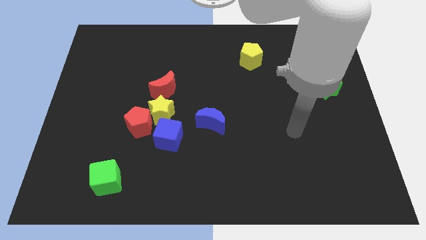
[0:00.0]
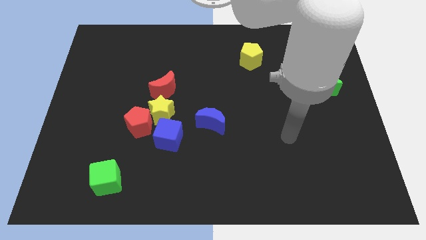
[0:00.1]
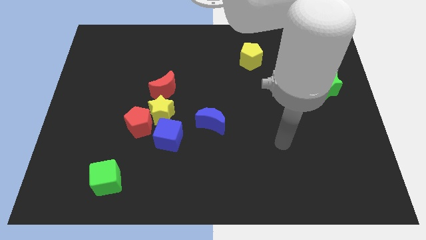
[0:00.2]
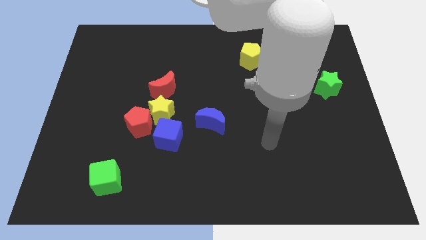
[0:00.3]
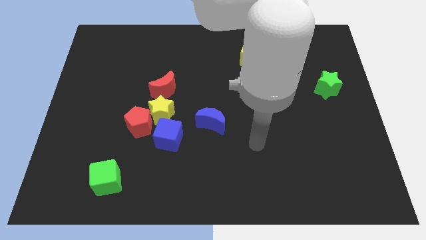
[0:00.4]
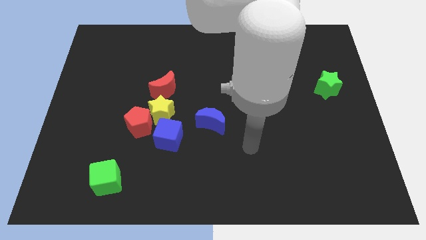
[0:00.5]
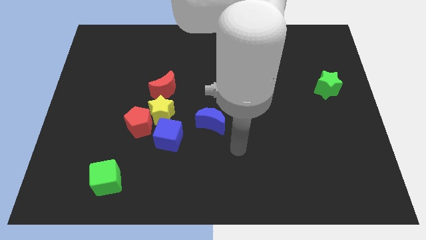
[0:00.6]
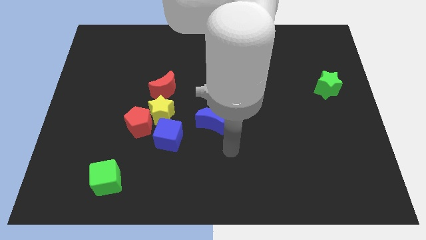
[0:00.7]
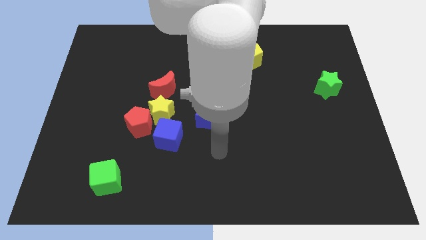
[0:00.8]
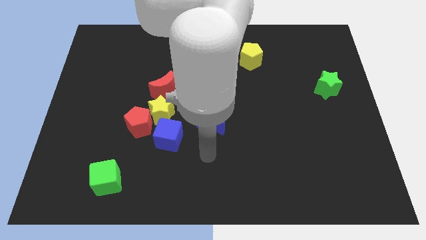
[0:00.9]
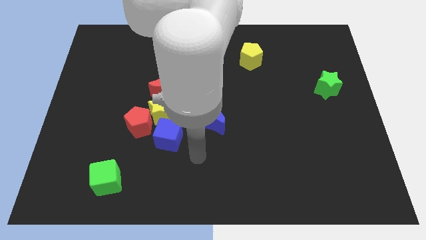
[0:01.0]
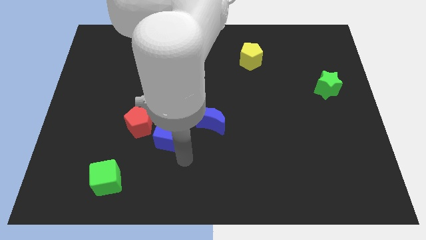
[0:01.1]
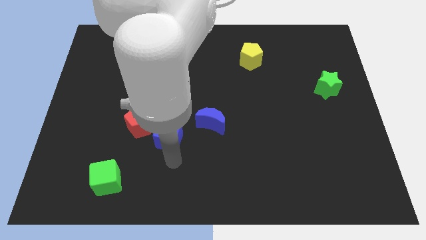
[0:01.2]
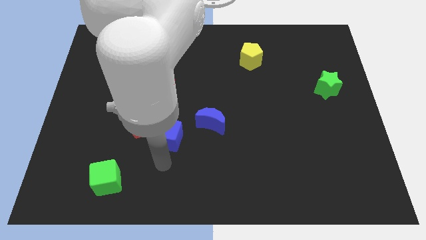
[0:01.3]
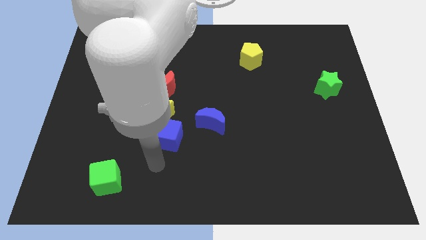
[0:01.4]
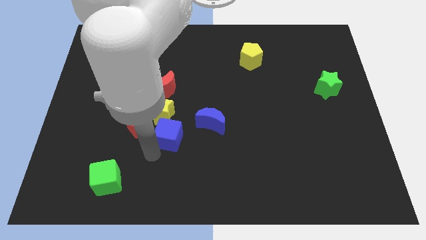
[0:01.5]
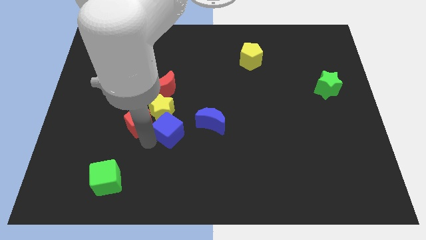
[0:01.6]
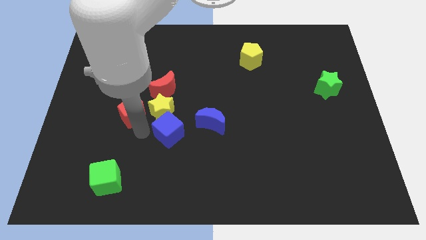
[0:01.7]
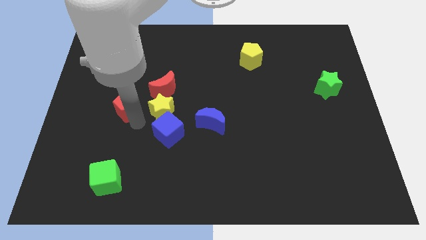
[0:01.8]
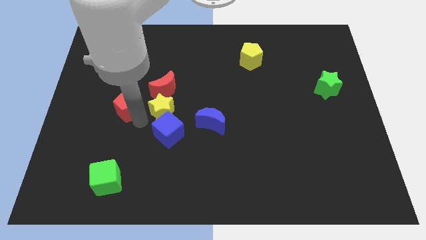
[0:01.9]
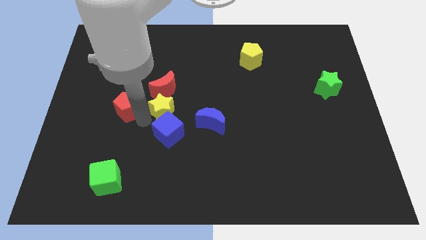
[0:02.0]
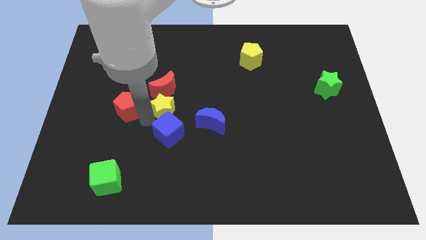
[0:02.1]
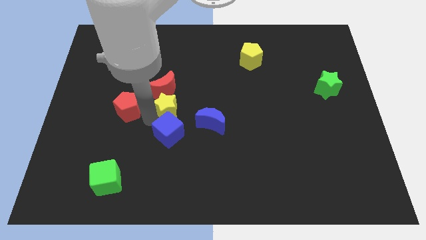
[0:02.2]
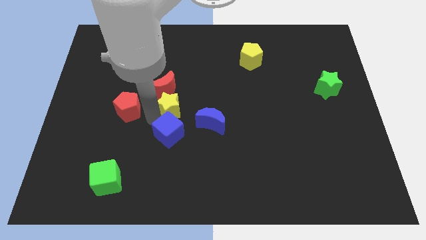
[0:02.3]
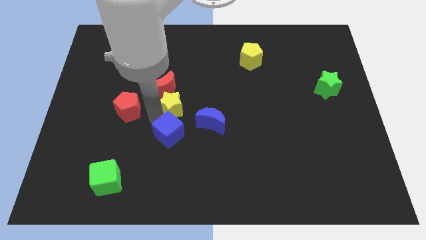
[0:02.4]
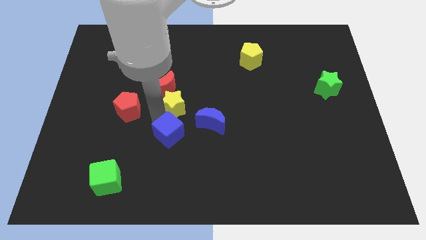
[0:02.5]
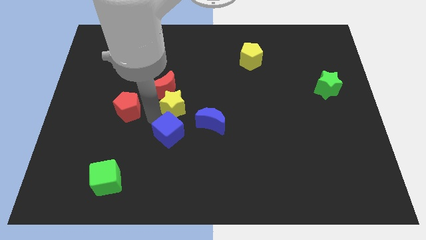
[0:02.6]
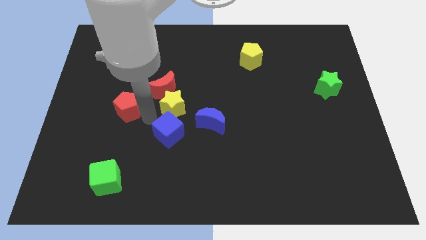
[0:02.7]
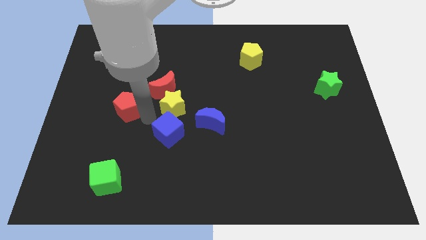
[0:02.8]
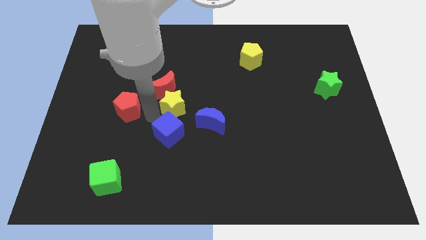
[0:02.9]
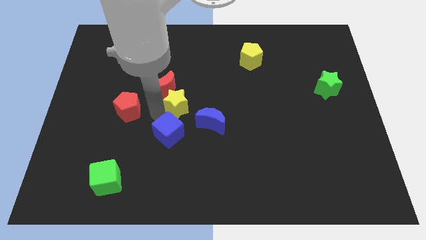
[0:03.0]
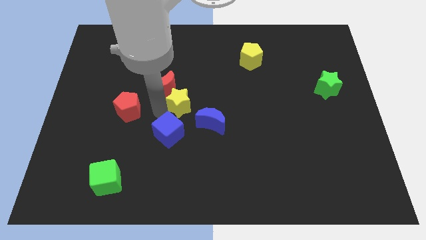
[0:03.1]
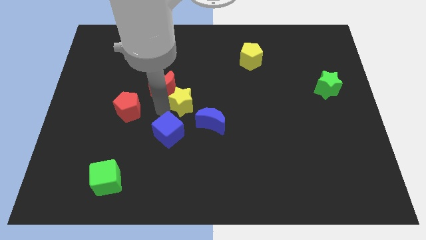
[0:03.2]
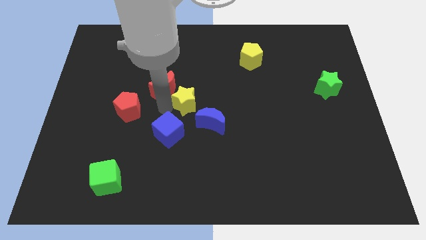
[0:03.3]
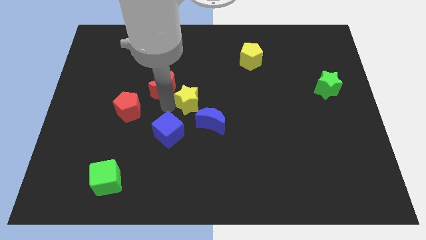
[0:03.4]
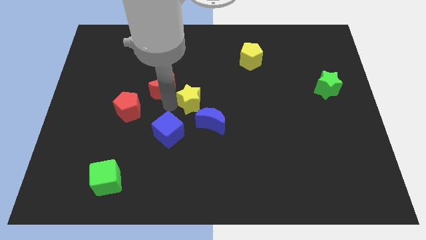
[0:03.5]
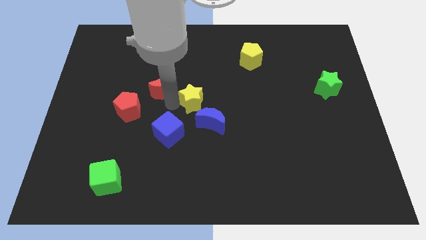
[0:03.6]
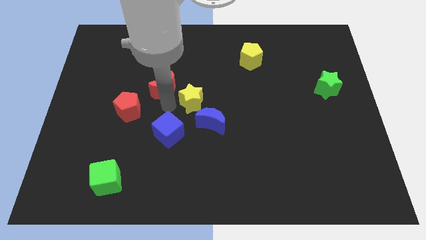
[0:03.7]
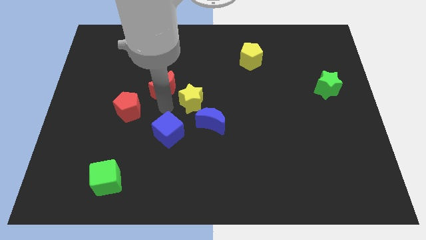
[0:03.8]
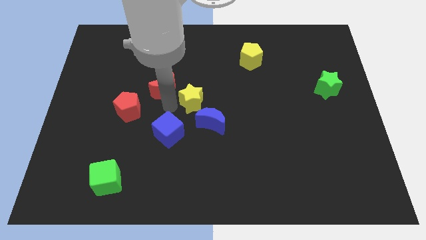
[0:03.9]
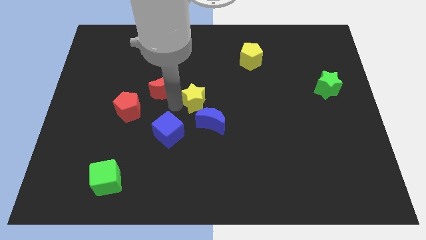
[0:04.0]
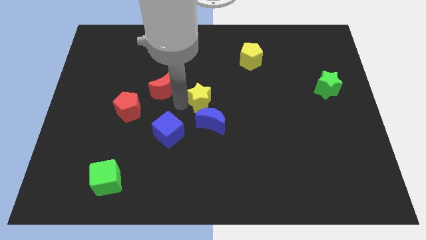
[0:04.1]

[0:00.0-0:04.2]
move the yellow star away from the red pentagon, red moon, and blue cube

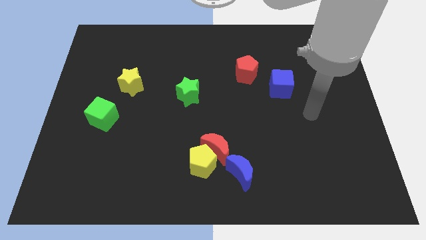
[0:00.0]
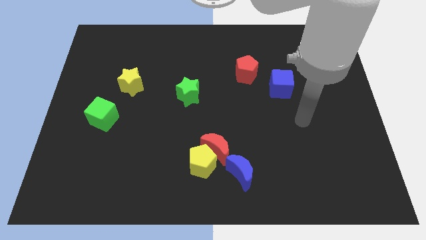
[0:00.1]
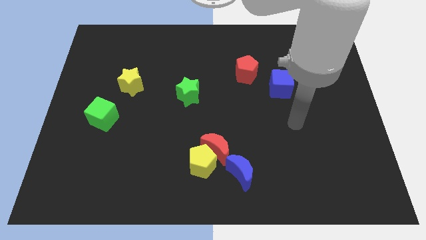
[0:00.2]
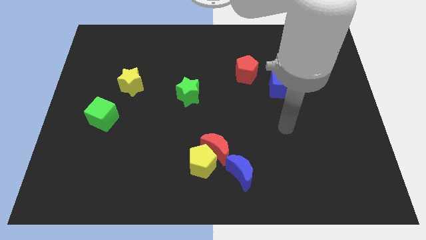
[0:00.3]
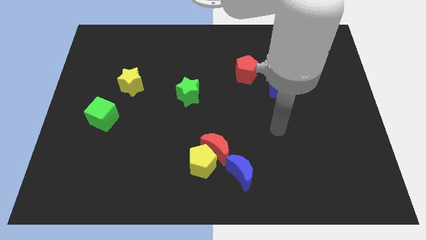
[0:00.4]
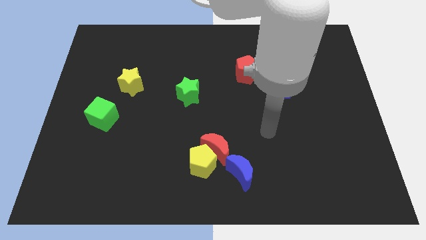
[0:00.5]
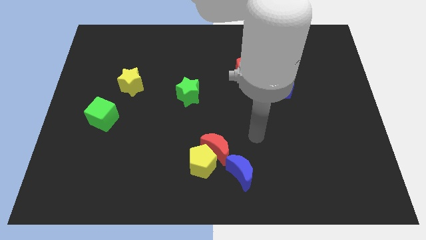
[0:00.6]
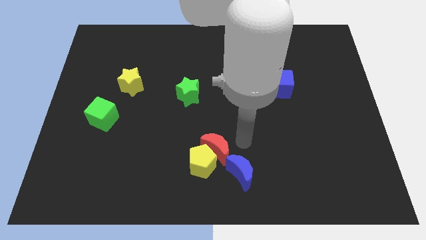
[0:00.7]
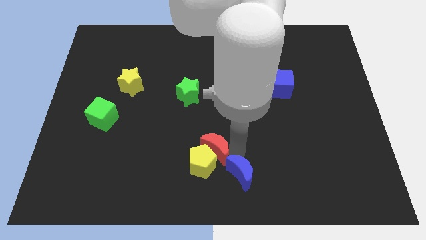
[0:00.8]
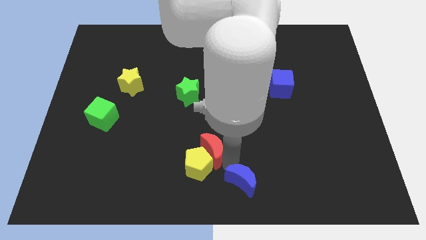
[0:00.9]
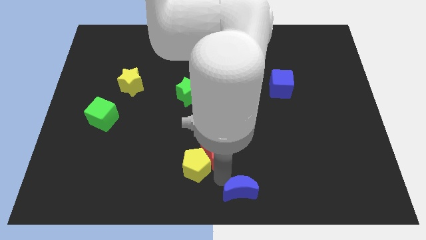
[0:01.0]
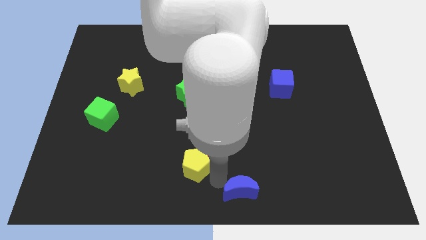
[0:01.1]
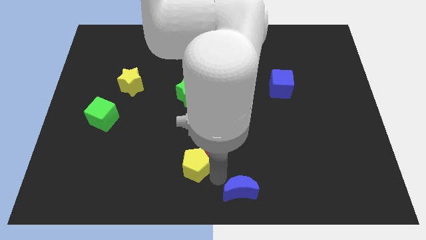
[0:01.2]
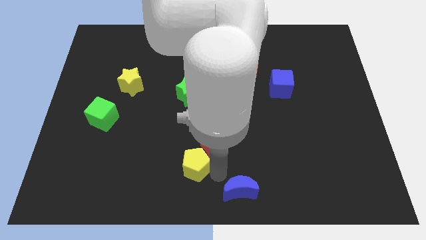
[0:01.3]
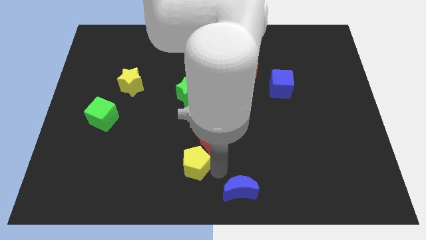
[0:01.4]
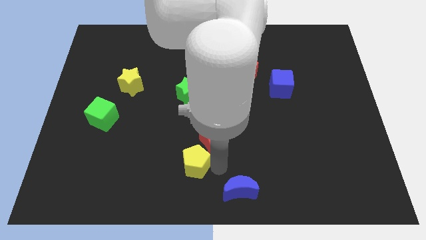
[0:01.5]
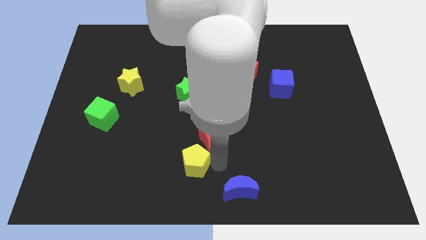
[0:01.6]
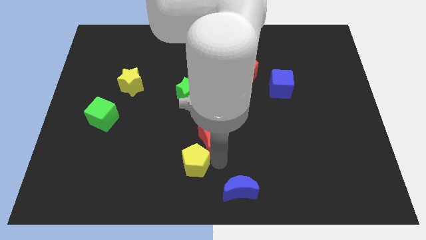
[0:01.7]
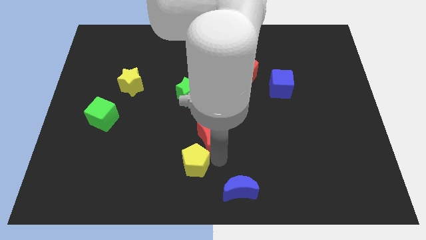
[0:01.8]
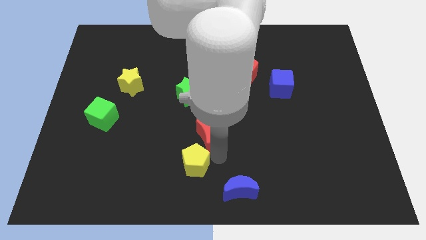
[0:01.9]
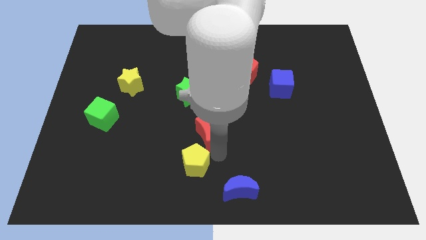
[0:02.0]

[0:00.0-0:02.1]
separate the red moon from the yellow pentagon and blue moon

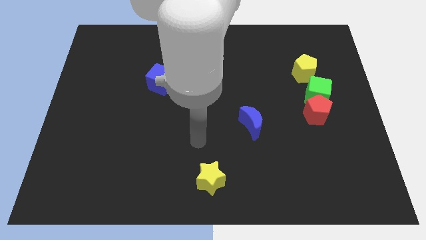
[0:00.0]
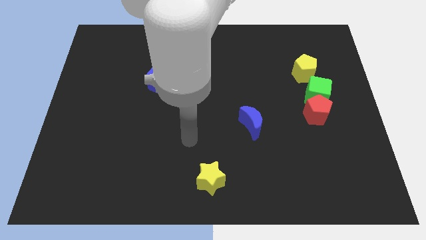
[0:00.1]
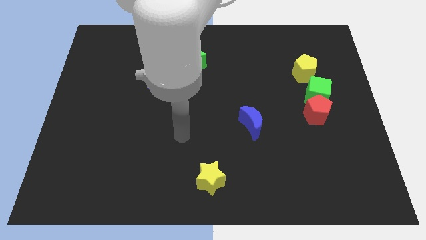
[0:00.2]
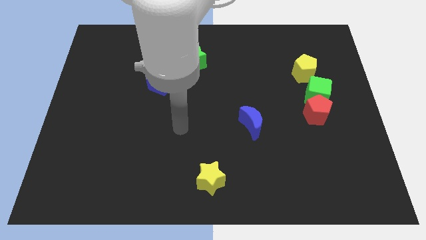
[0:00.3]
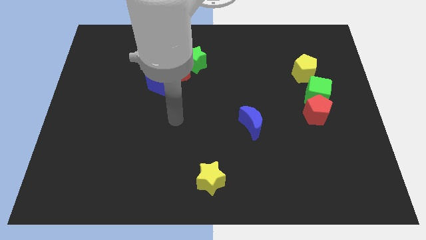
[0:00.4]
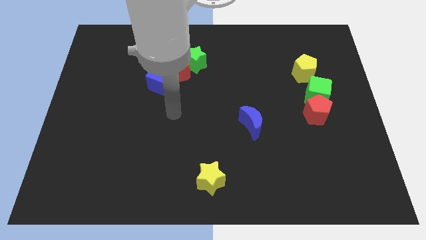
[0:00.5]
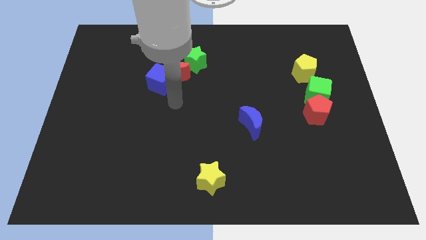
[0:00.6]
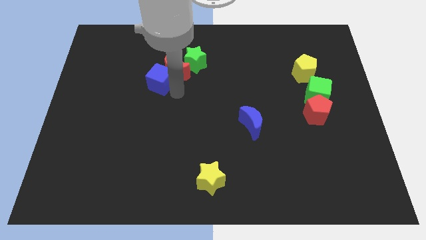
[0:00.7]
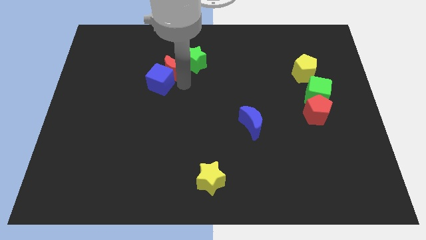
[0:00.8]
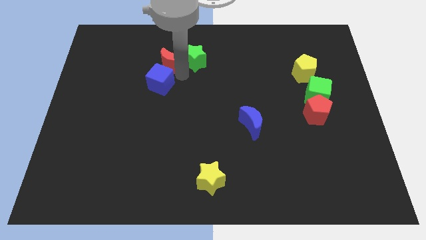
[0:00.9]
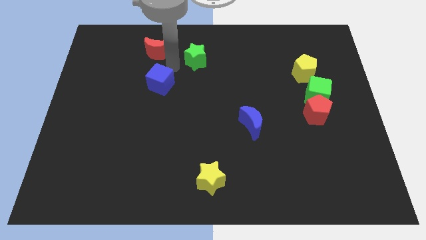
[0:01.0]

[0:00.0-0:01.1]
separate the blue cube from the red moon

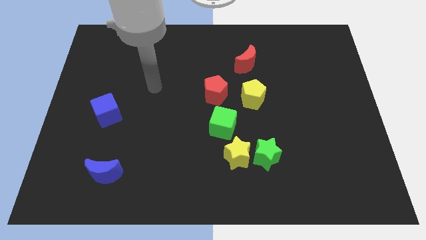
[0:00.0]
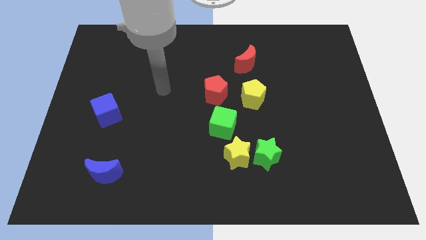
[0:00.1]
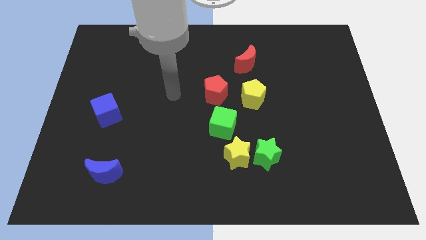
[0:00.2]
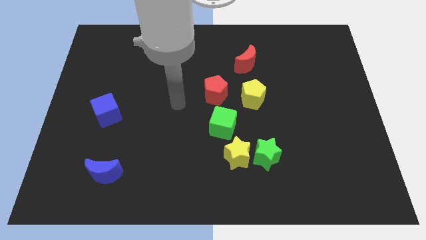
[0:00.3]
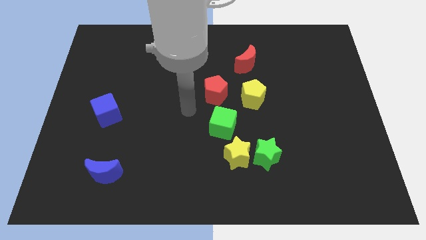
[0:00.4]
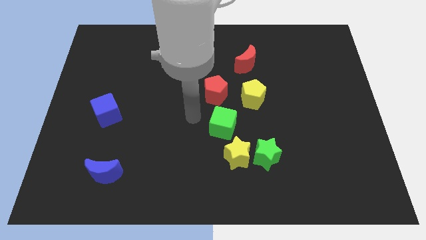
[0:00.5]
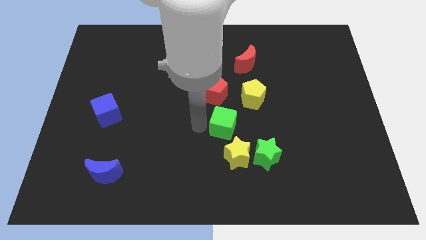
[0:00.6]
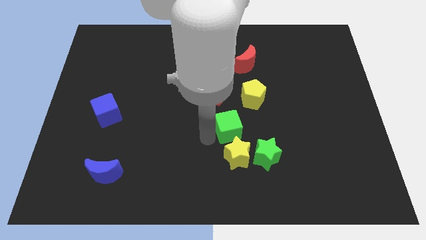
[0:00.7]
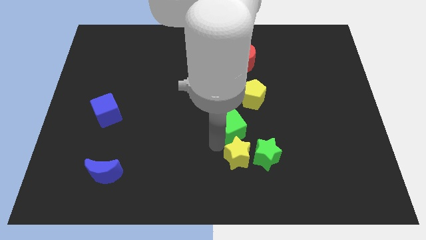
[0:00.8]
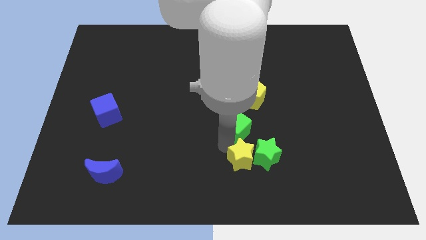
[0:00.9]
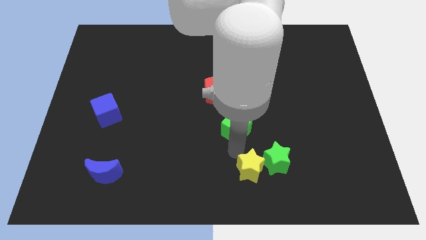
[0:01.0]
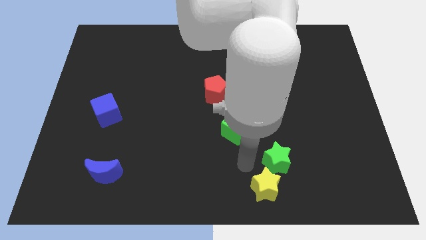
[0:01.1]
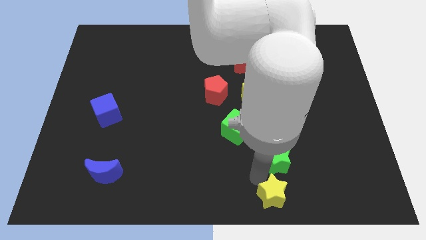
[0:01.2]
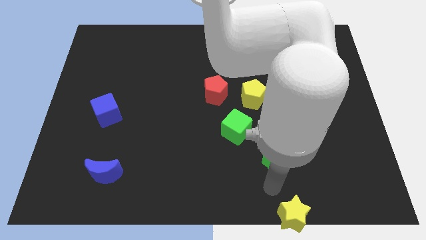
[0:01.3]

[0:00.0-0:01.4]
move the green star away from the yellow star

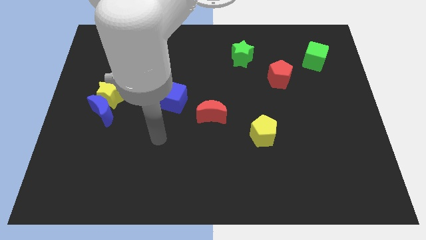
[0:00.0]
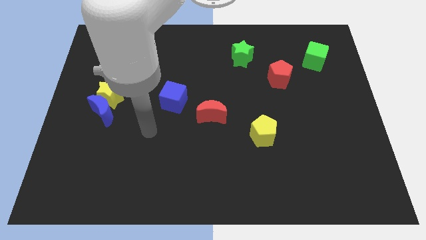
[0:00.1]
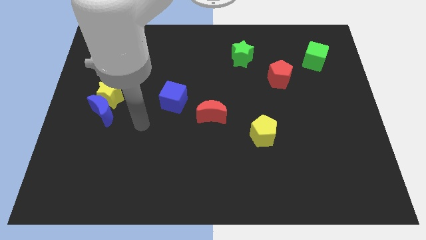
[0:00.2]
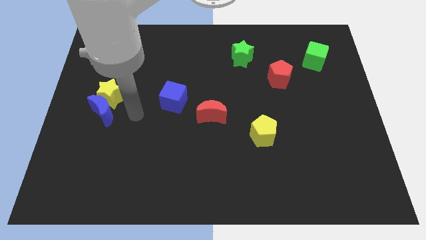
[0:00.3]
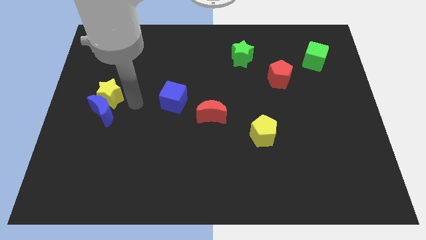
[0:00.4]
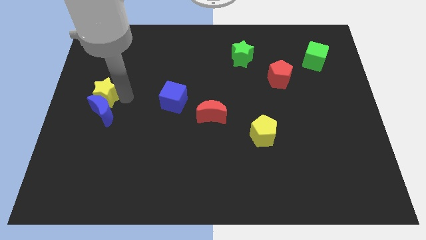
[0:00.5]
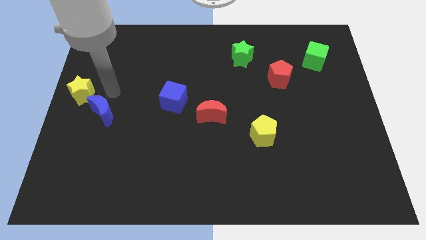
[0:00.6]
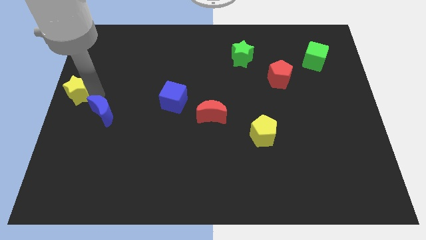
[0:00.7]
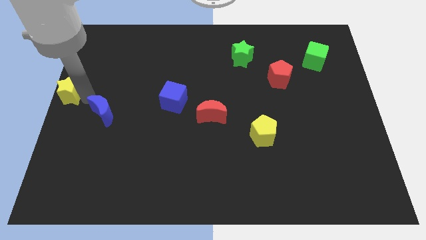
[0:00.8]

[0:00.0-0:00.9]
separate the blue moon from the yellow star
